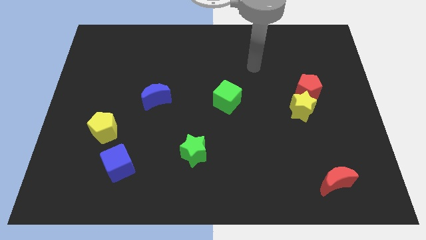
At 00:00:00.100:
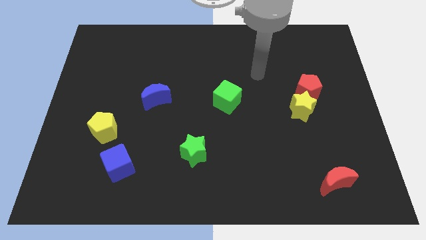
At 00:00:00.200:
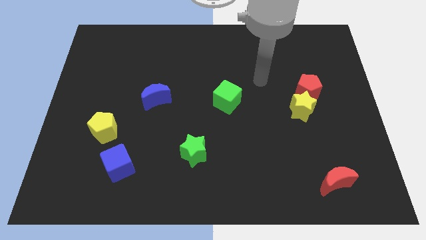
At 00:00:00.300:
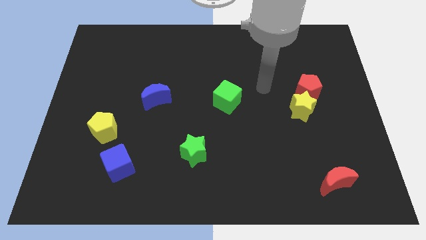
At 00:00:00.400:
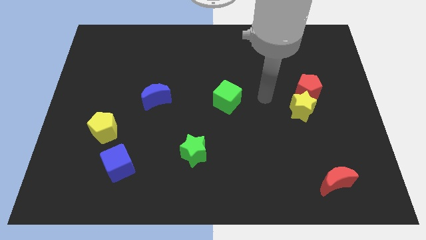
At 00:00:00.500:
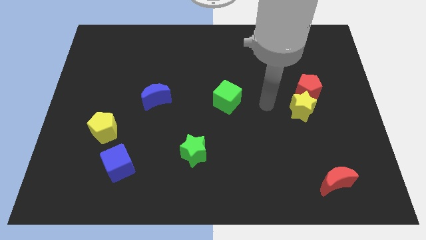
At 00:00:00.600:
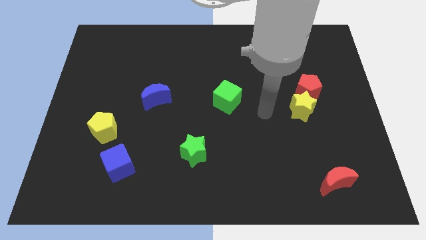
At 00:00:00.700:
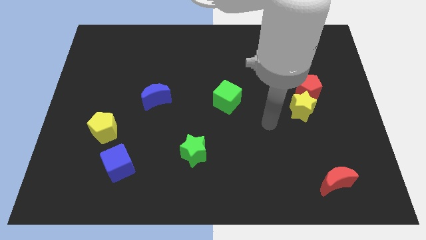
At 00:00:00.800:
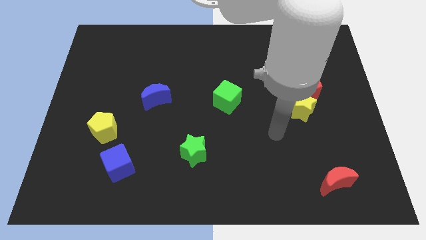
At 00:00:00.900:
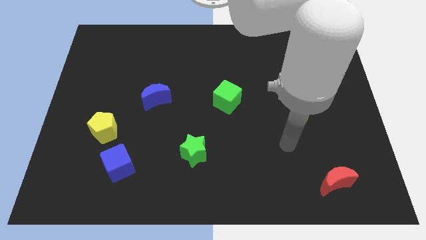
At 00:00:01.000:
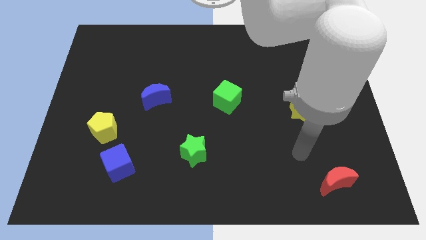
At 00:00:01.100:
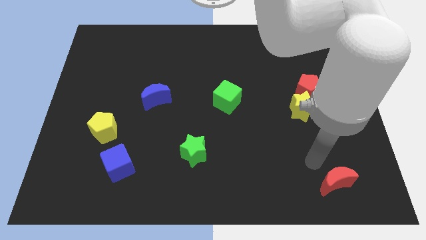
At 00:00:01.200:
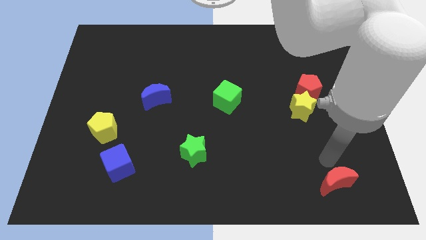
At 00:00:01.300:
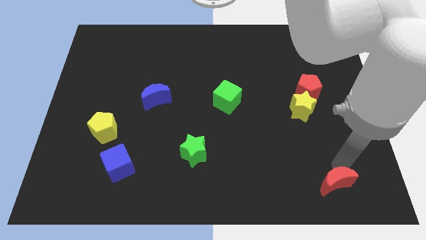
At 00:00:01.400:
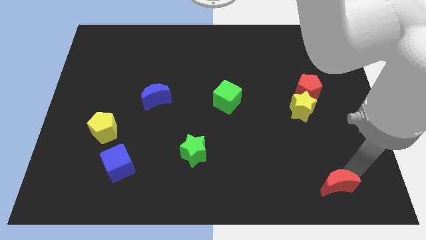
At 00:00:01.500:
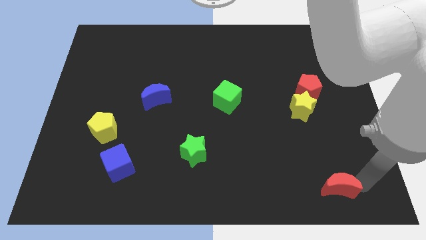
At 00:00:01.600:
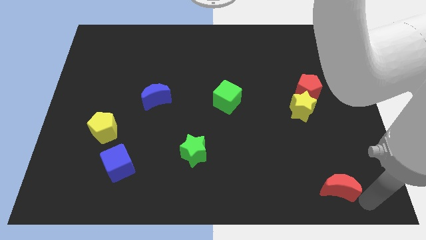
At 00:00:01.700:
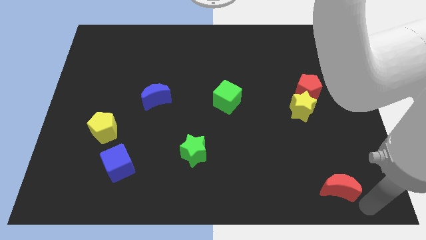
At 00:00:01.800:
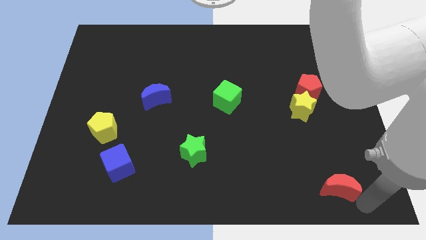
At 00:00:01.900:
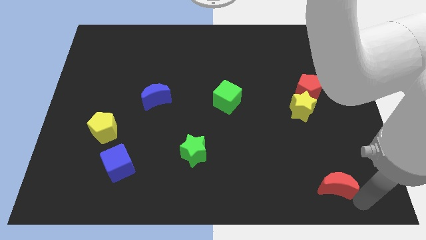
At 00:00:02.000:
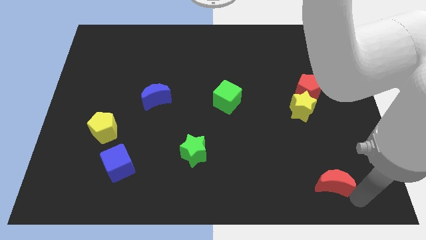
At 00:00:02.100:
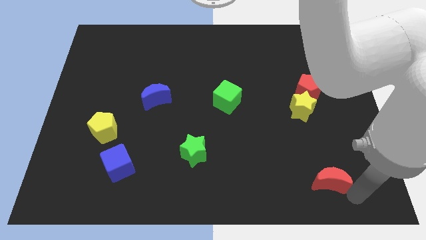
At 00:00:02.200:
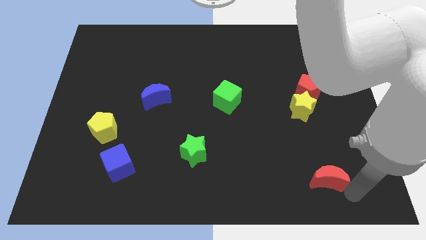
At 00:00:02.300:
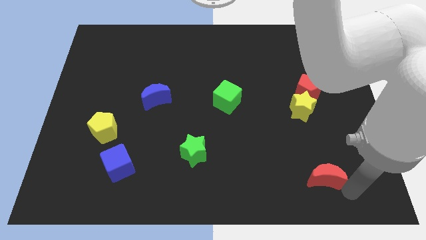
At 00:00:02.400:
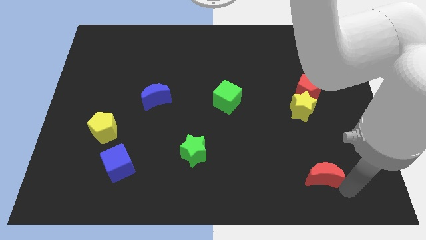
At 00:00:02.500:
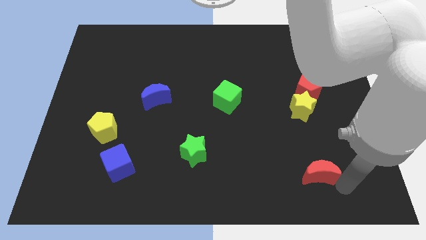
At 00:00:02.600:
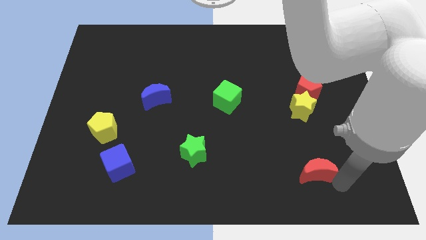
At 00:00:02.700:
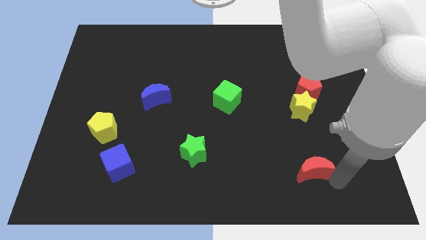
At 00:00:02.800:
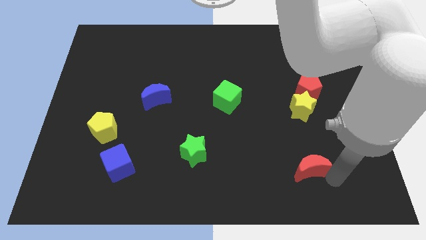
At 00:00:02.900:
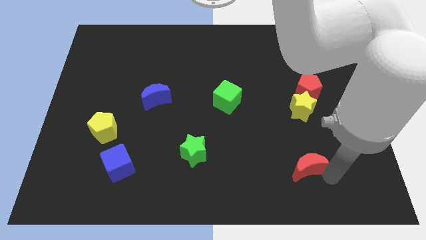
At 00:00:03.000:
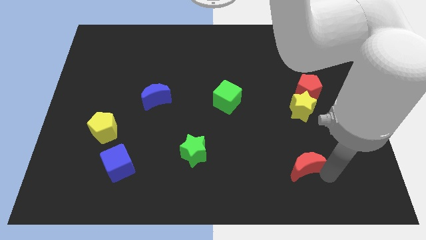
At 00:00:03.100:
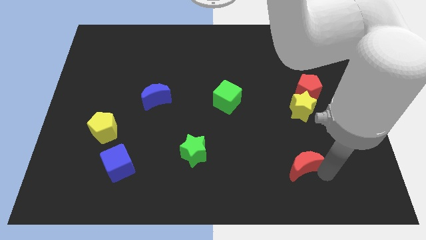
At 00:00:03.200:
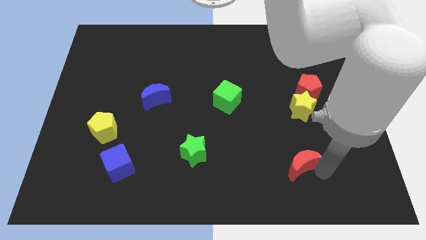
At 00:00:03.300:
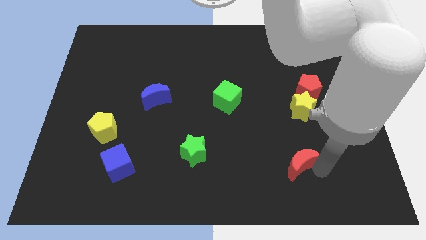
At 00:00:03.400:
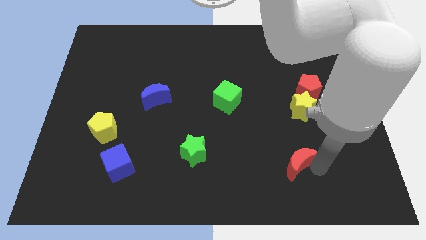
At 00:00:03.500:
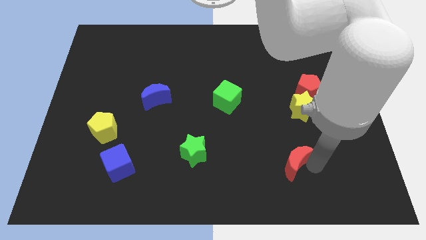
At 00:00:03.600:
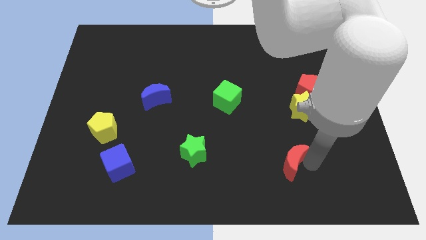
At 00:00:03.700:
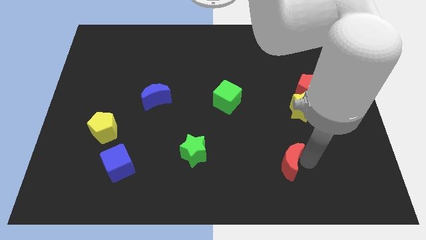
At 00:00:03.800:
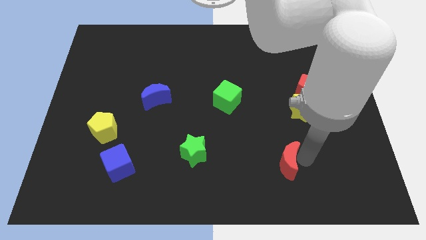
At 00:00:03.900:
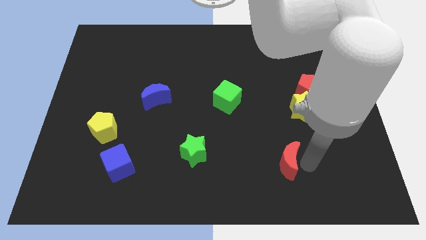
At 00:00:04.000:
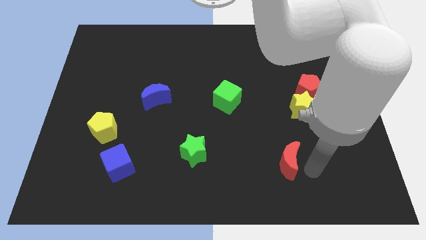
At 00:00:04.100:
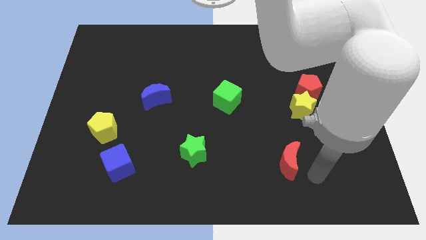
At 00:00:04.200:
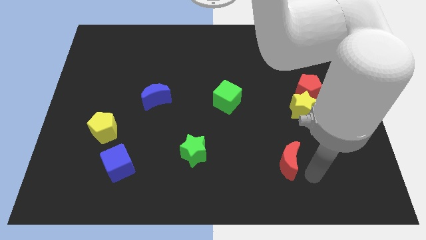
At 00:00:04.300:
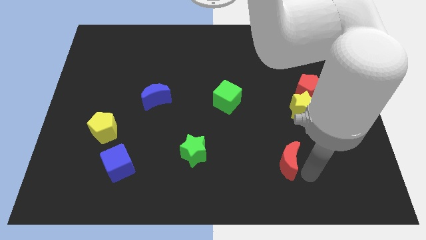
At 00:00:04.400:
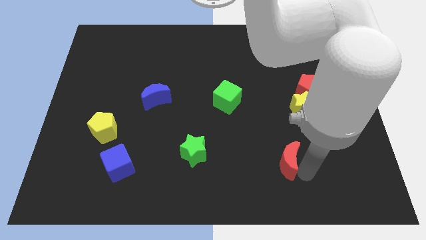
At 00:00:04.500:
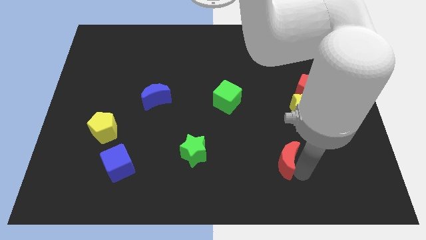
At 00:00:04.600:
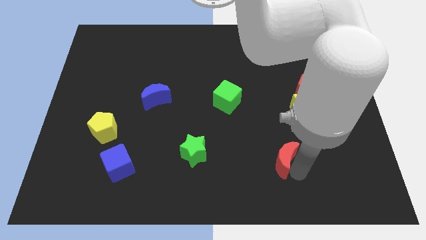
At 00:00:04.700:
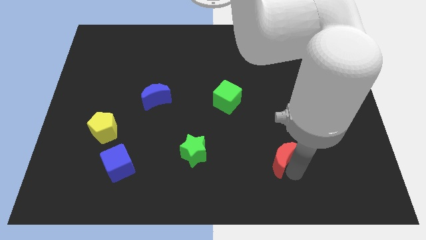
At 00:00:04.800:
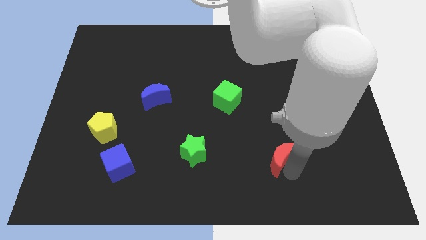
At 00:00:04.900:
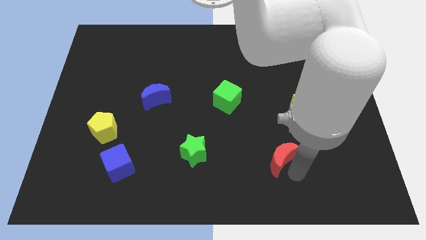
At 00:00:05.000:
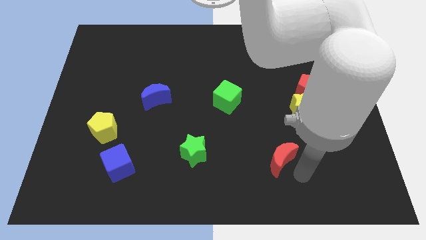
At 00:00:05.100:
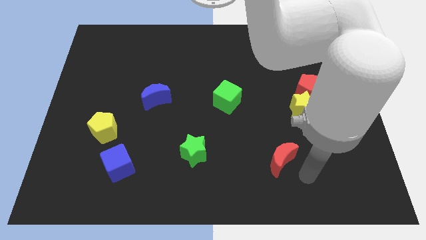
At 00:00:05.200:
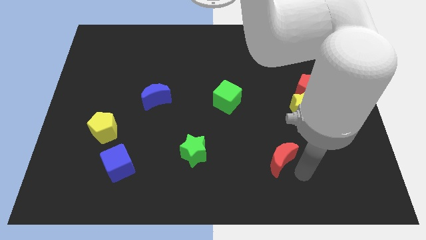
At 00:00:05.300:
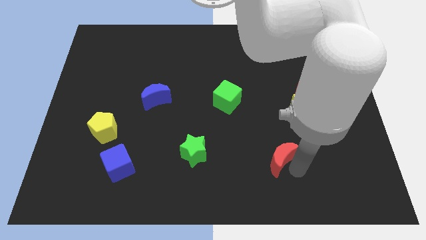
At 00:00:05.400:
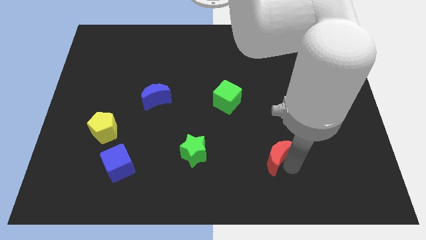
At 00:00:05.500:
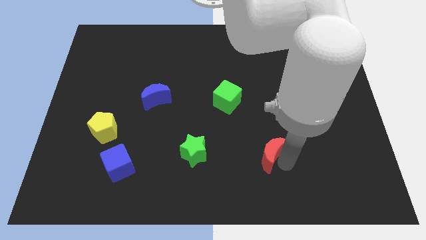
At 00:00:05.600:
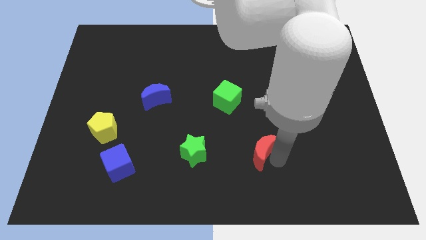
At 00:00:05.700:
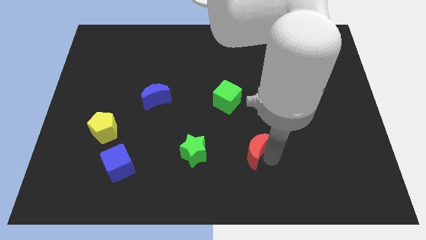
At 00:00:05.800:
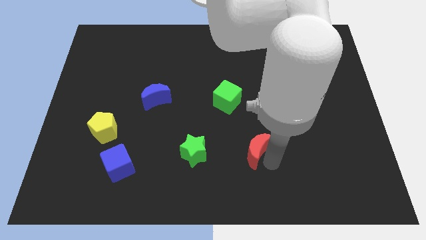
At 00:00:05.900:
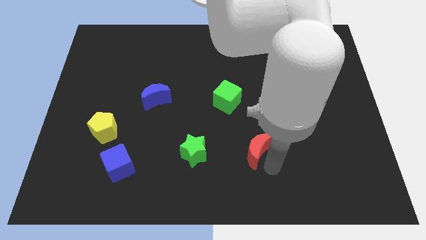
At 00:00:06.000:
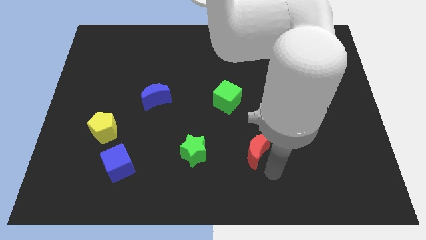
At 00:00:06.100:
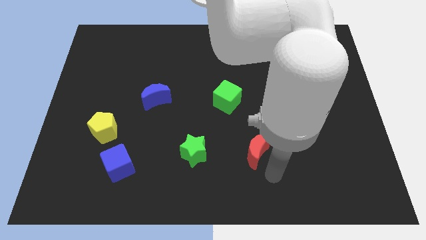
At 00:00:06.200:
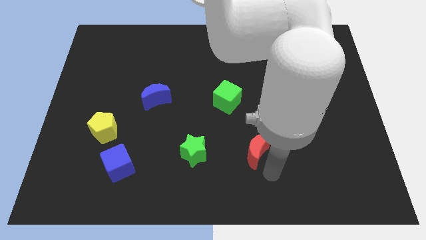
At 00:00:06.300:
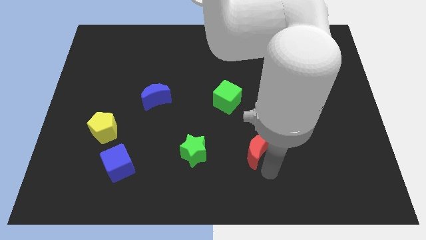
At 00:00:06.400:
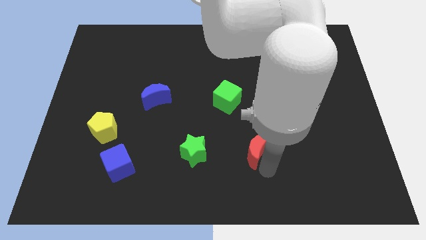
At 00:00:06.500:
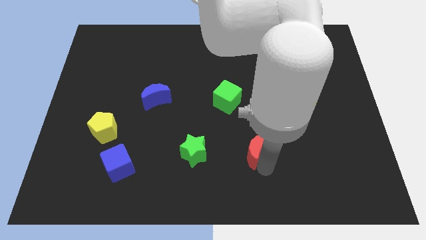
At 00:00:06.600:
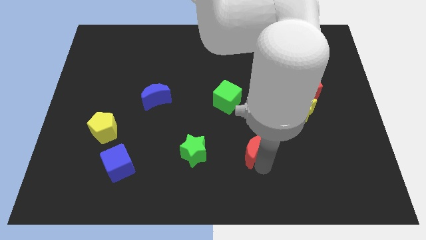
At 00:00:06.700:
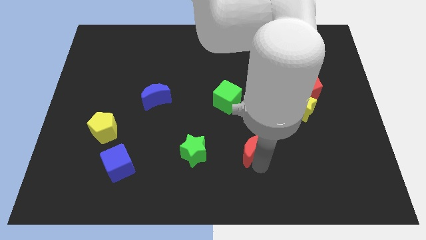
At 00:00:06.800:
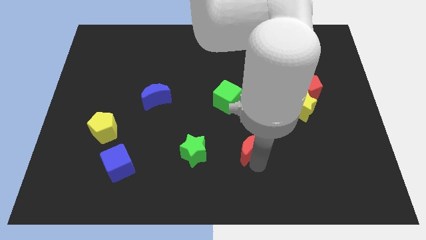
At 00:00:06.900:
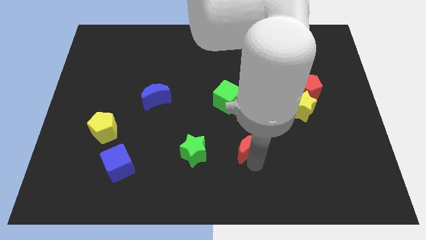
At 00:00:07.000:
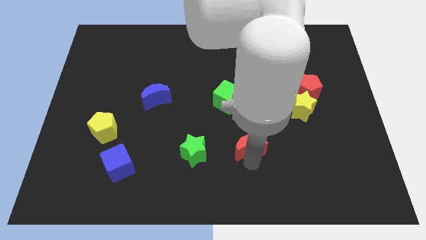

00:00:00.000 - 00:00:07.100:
slide the red moon to the bottom side of the green cube
